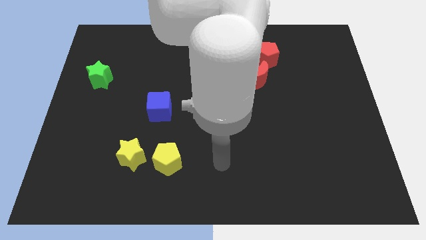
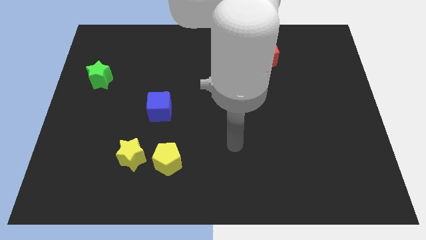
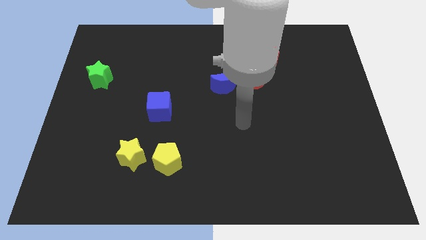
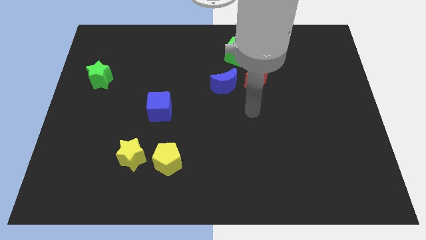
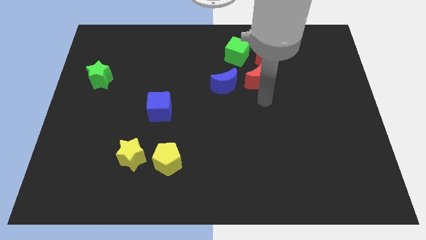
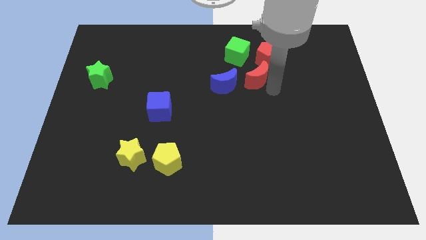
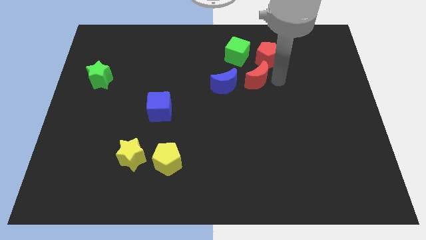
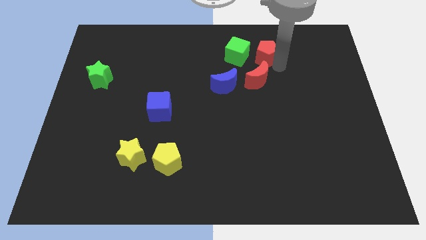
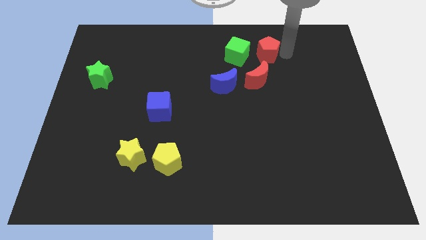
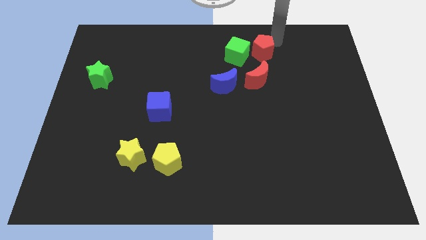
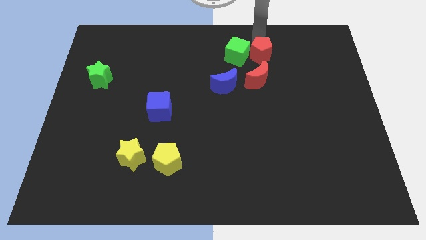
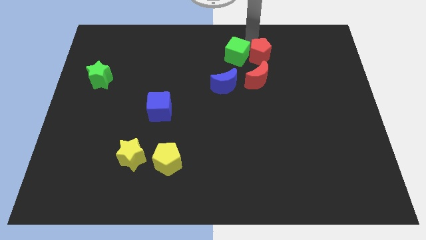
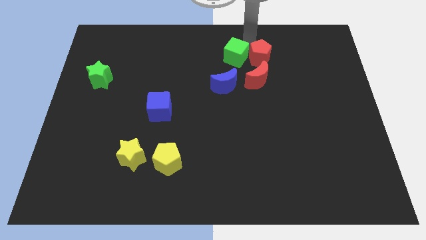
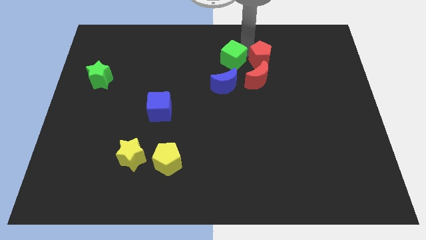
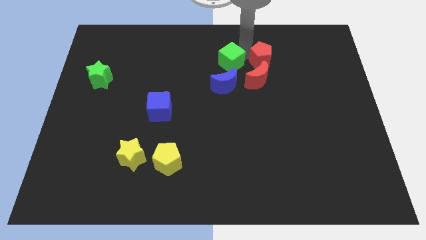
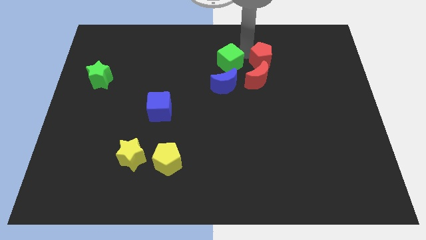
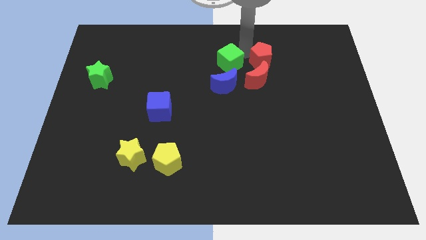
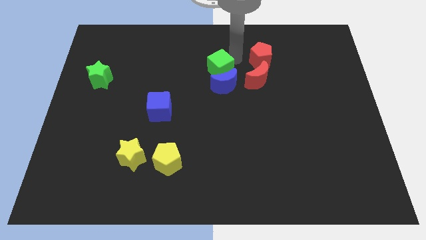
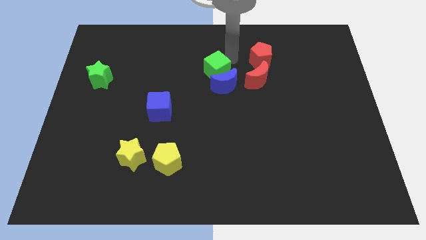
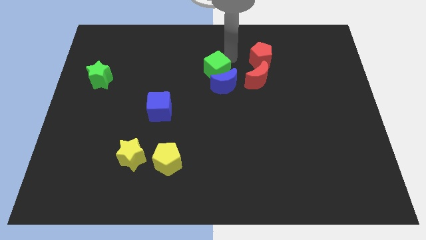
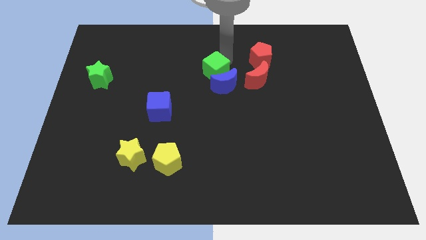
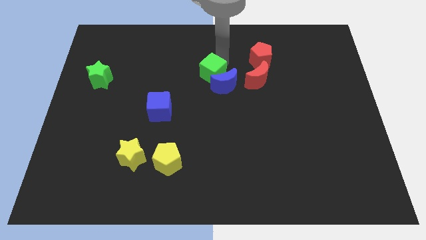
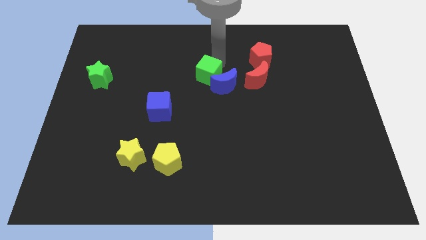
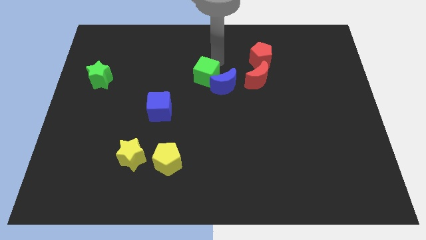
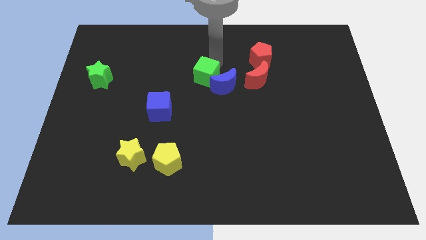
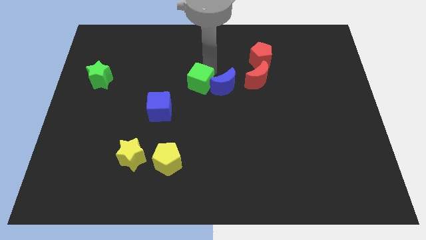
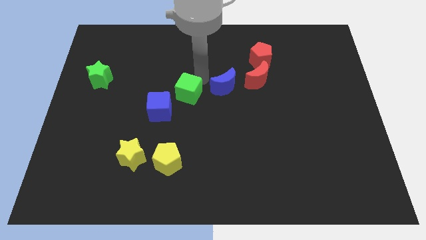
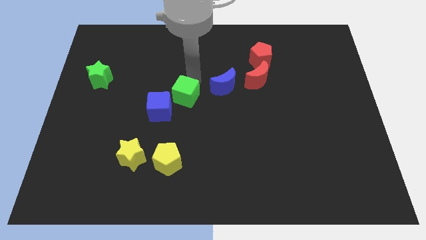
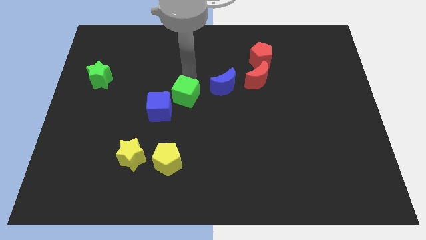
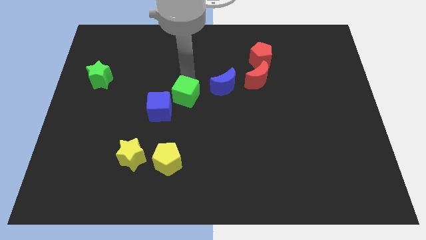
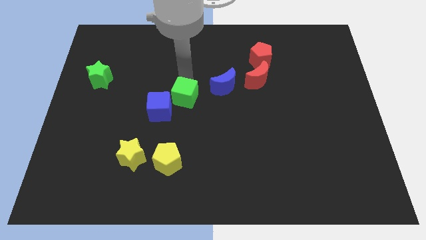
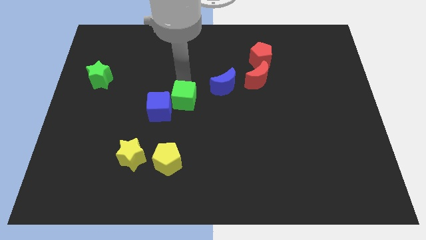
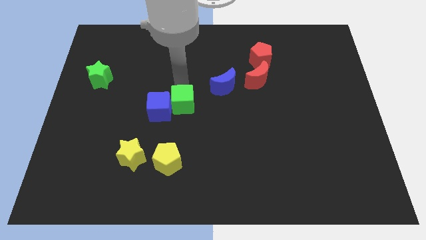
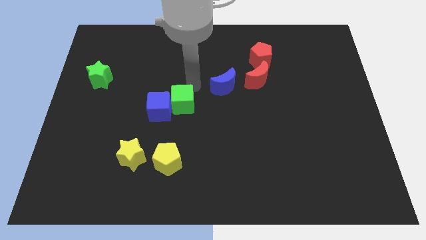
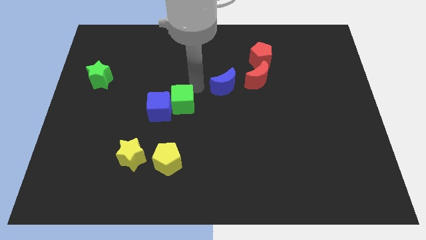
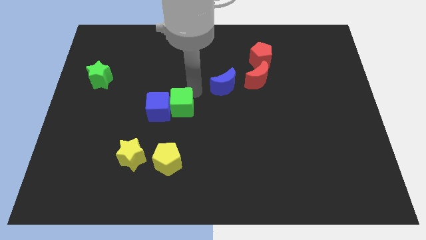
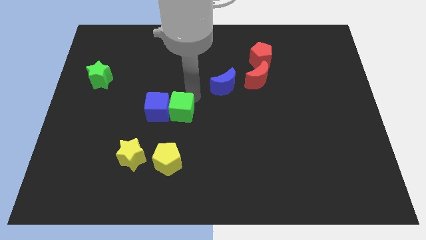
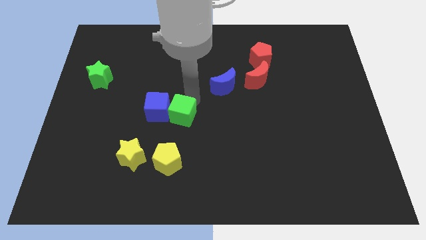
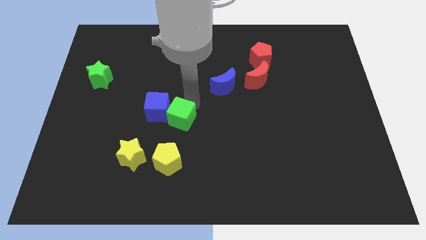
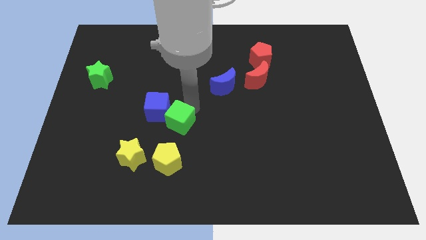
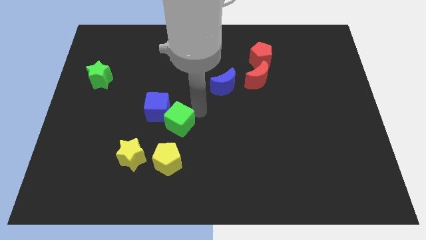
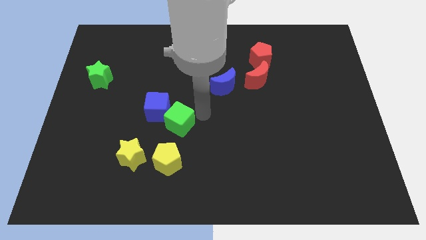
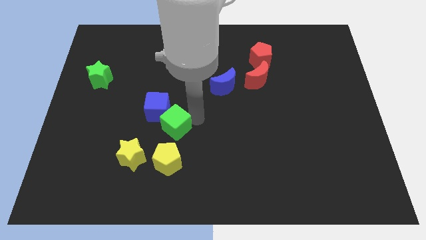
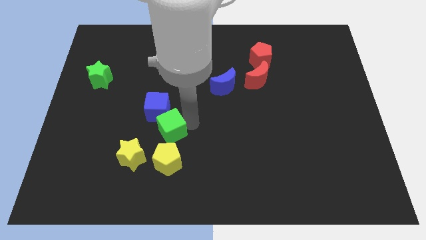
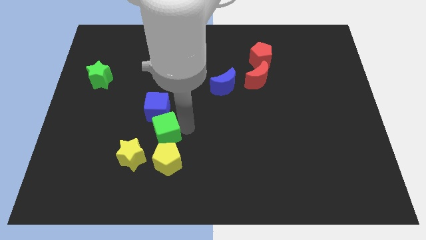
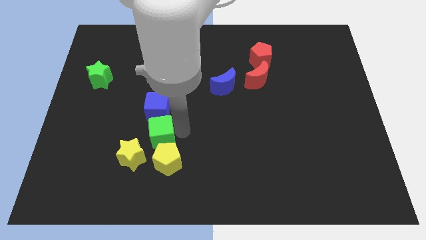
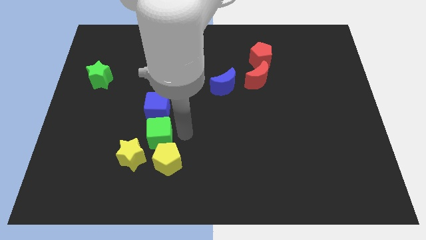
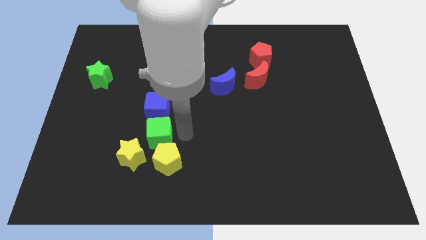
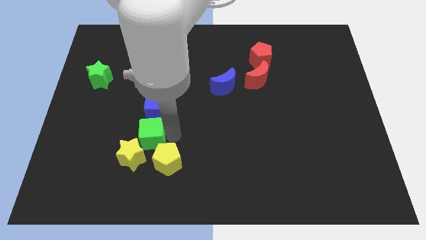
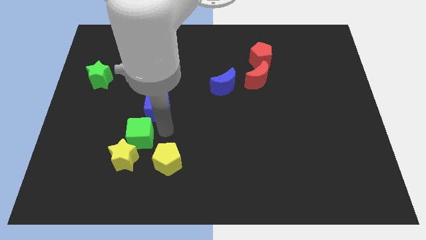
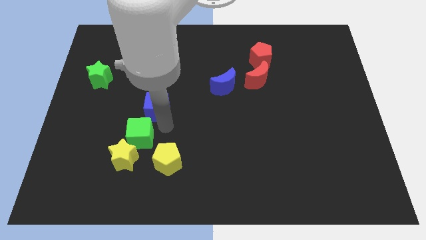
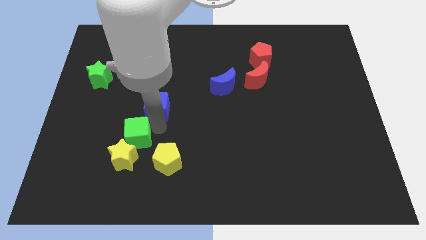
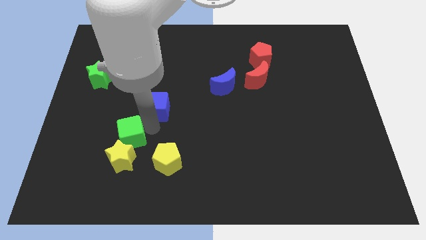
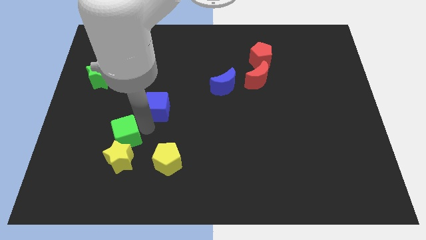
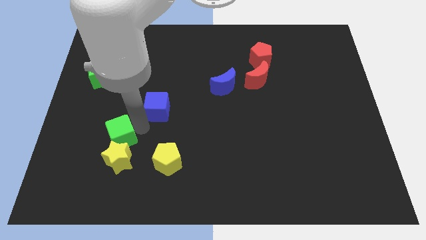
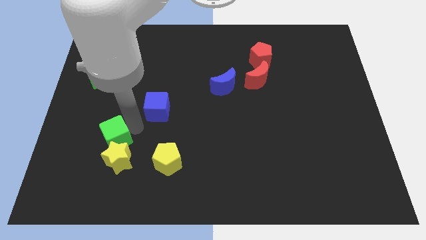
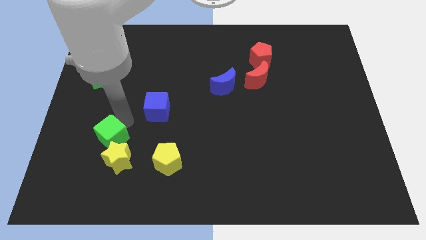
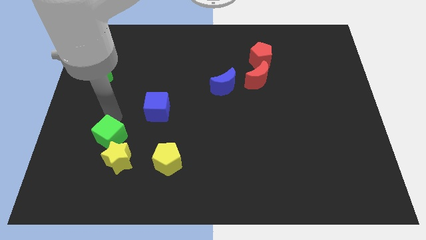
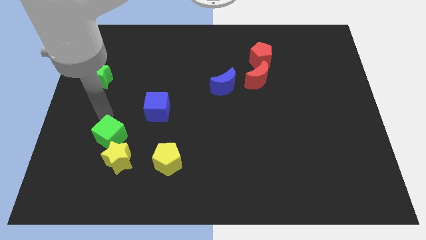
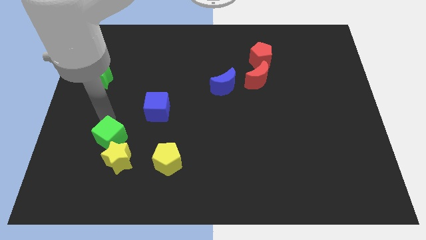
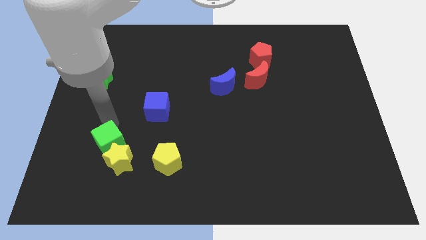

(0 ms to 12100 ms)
move the green cube just left of the yellow pentagon

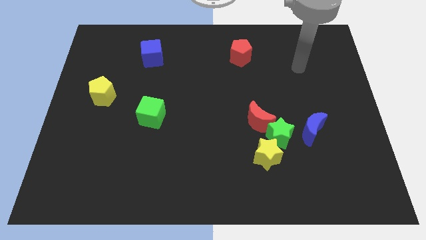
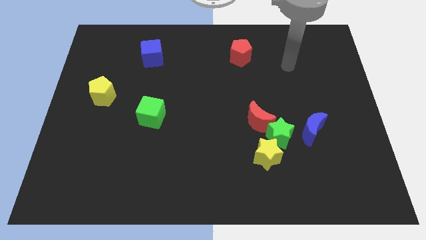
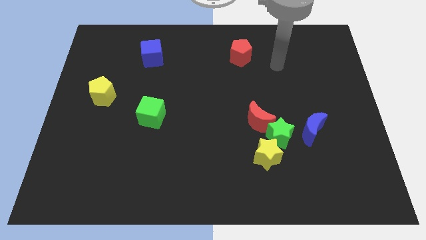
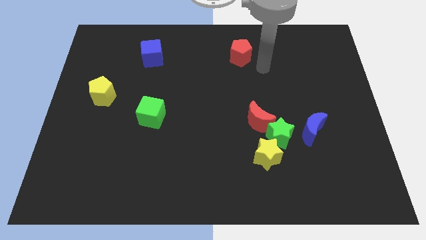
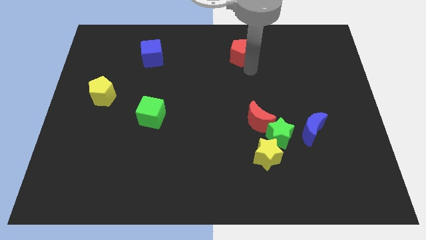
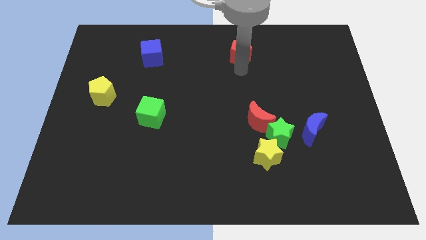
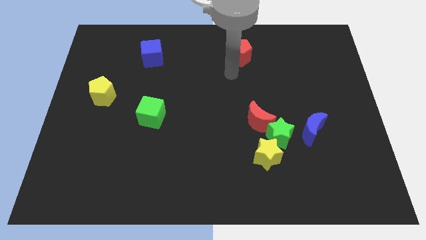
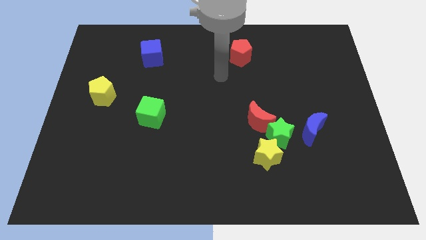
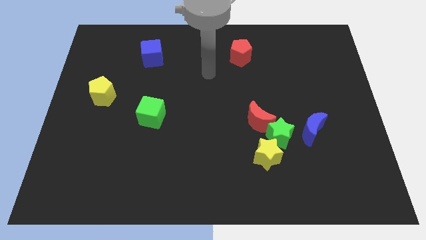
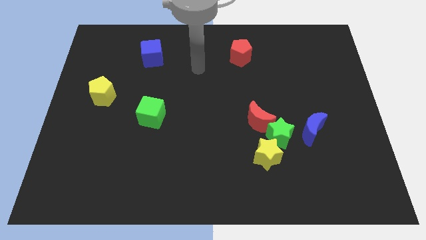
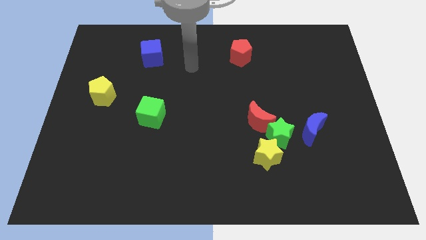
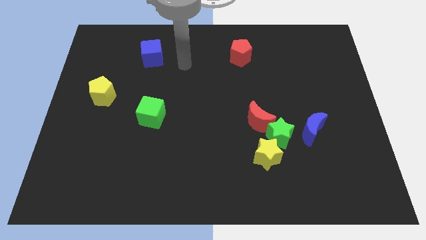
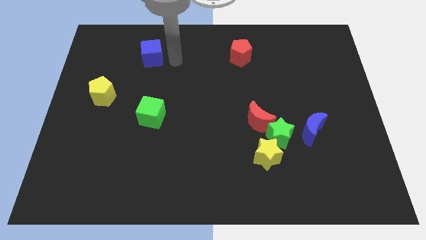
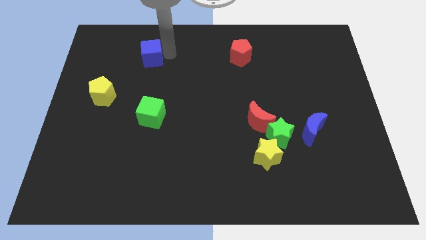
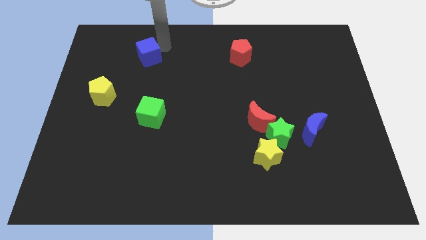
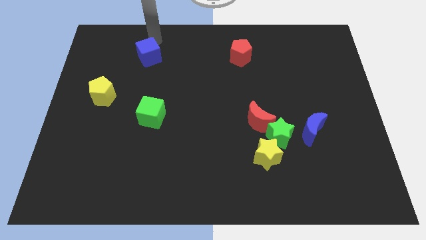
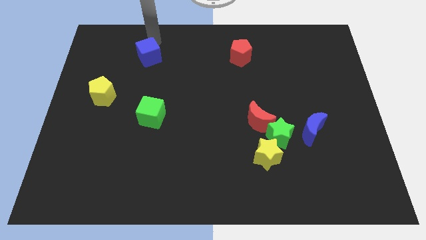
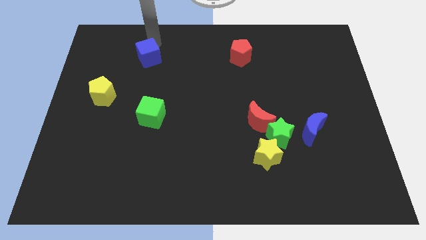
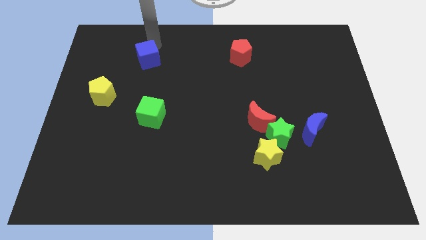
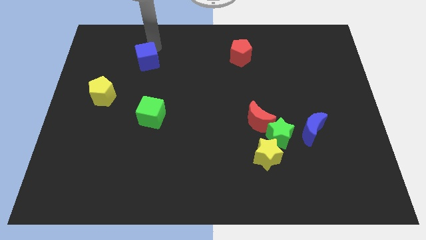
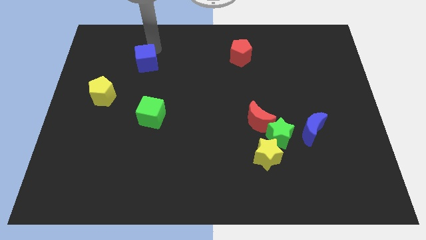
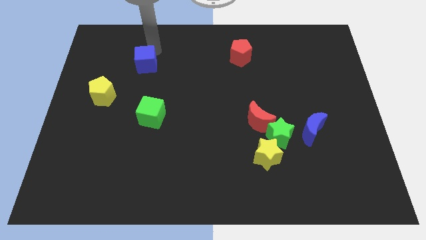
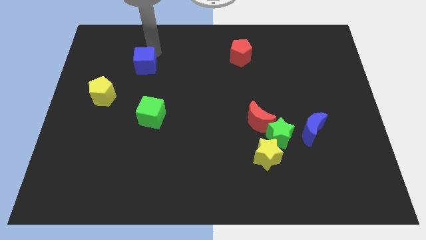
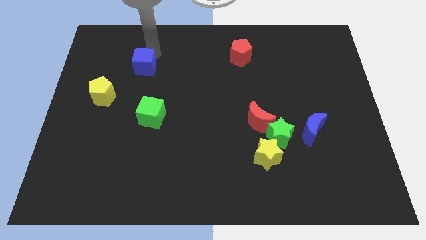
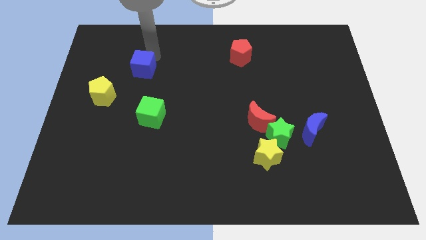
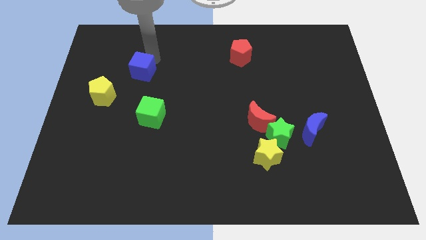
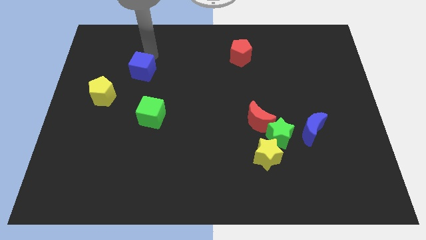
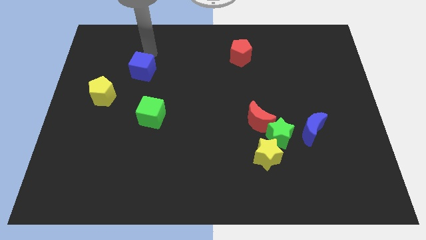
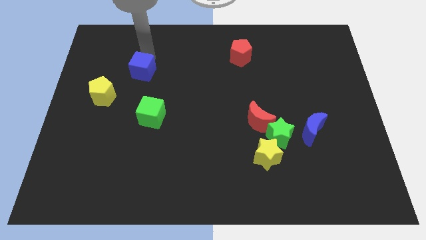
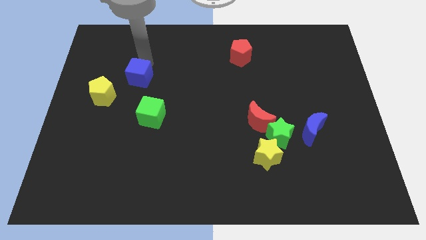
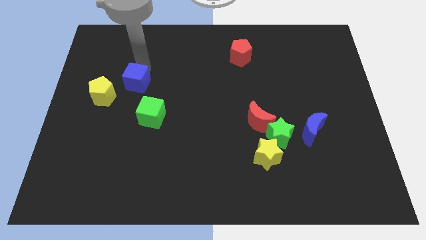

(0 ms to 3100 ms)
move the blue cube to the top left side of the green cube
